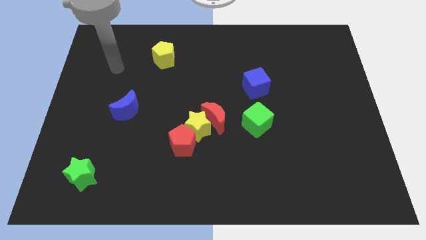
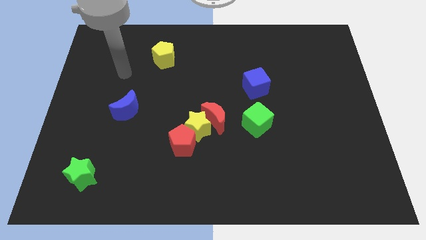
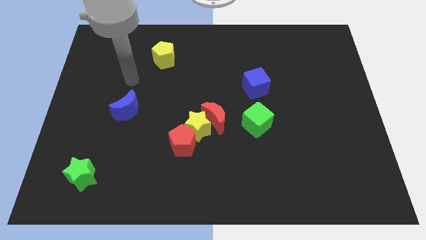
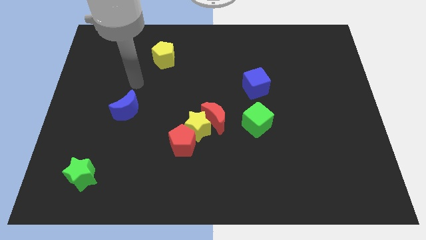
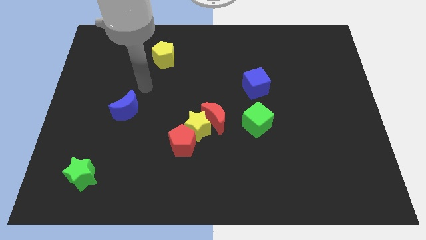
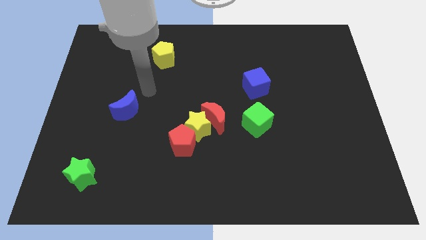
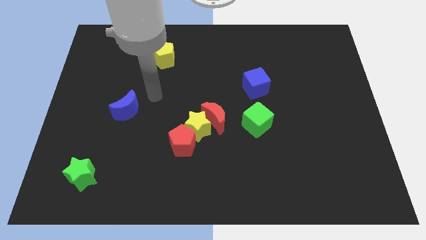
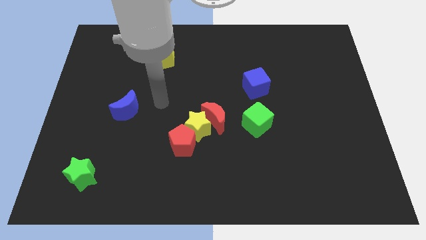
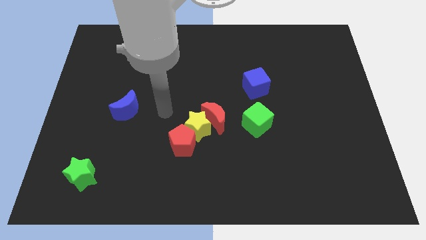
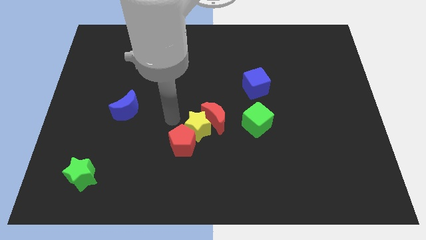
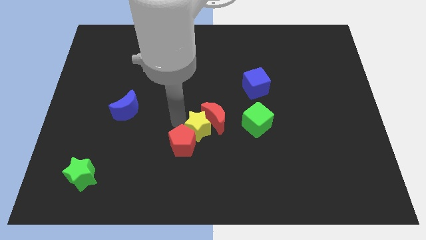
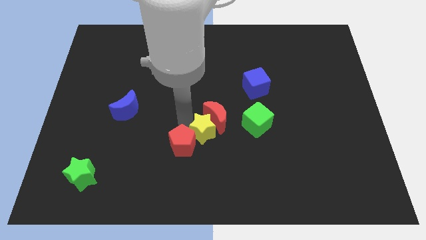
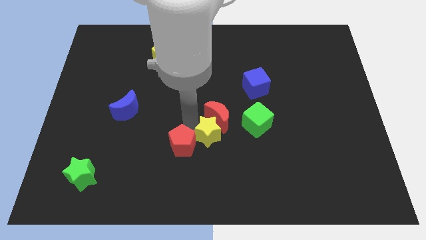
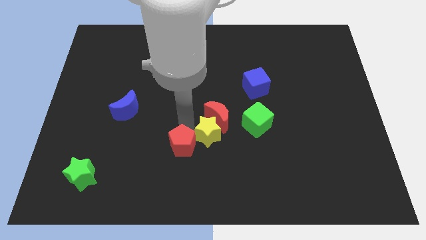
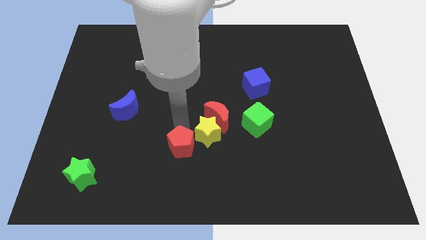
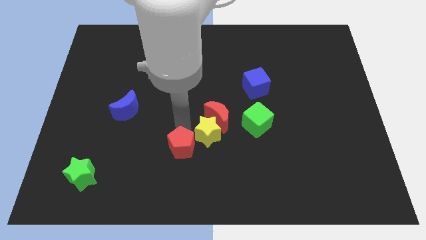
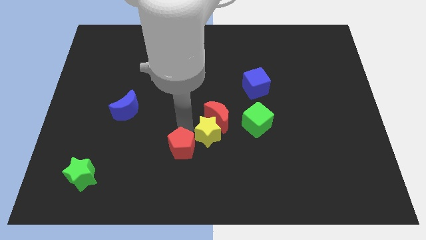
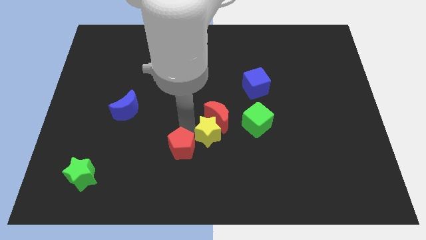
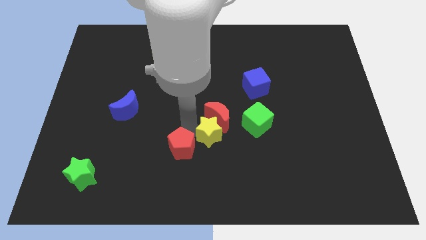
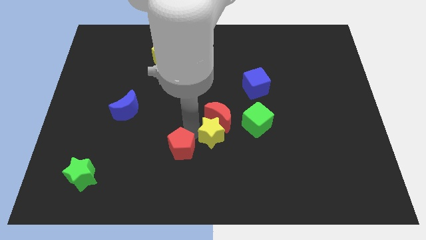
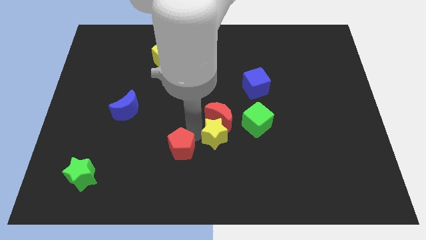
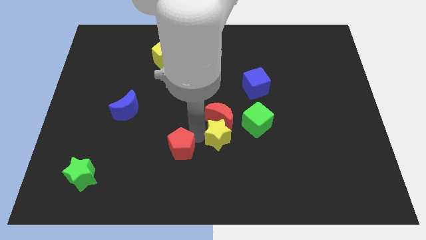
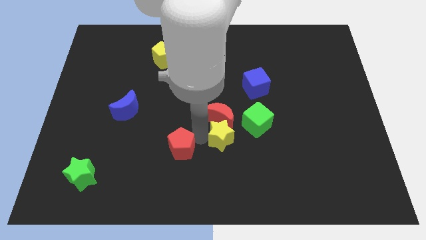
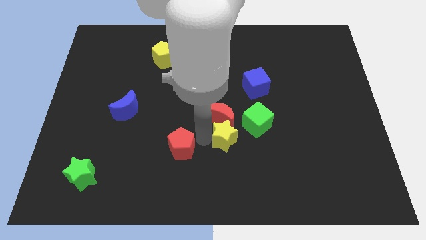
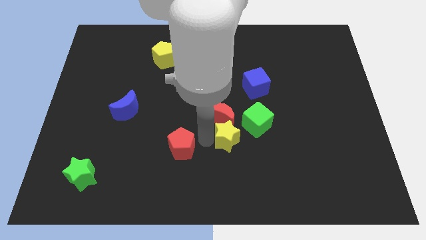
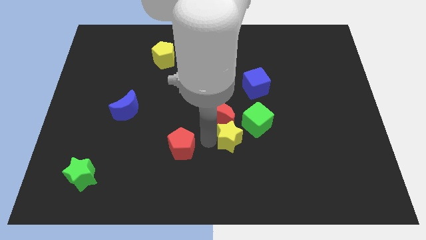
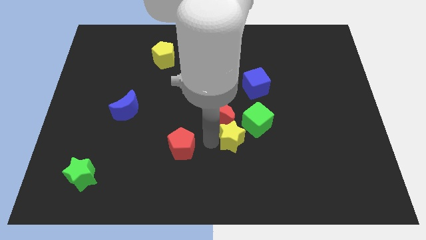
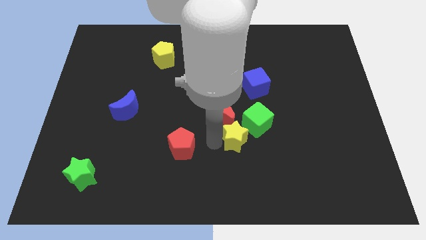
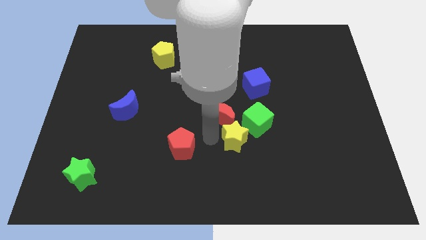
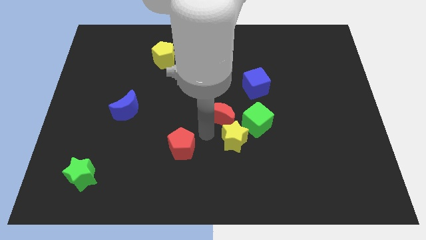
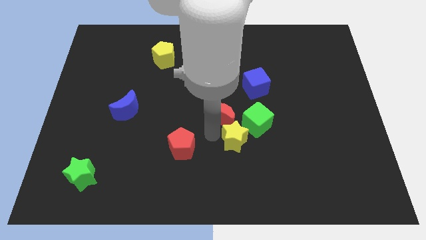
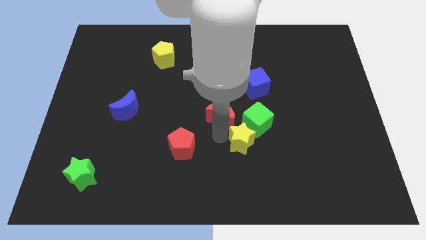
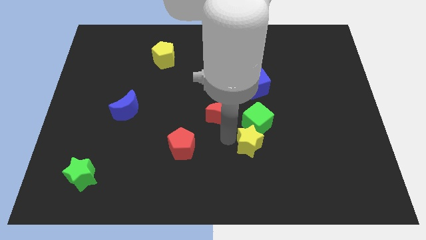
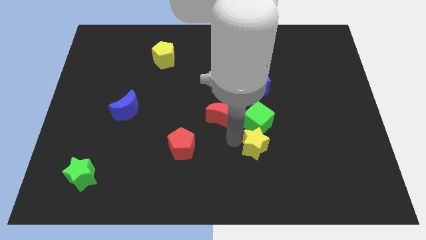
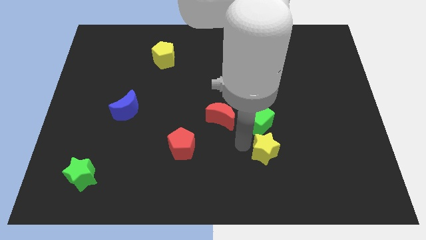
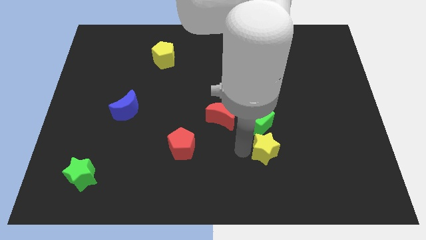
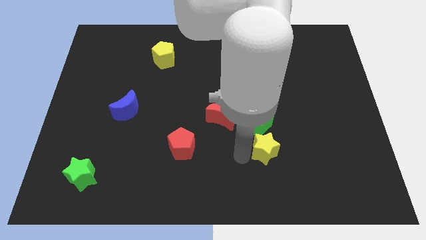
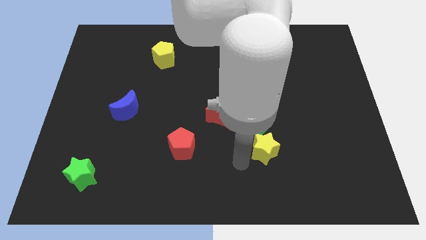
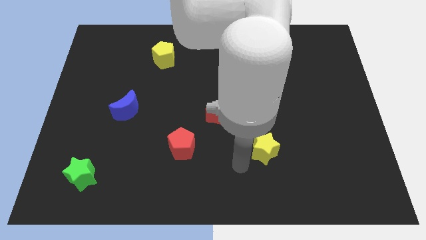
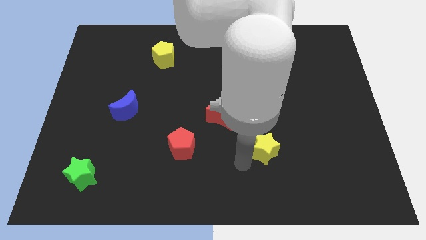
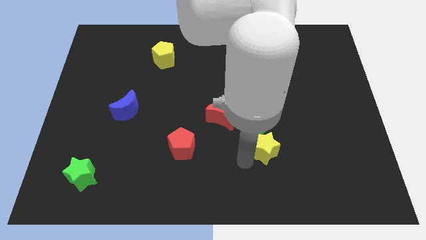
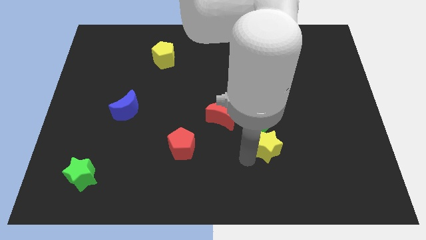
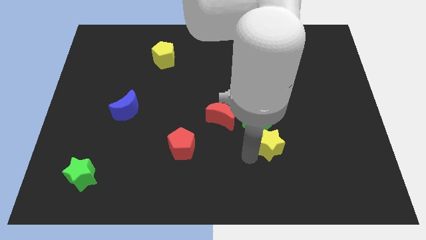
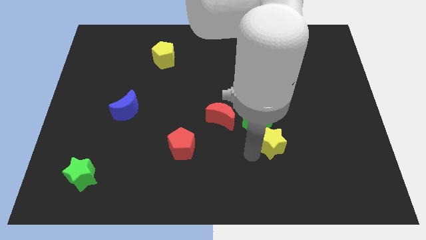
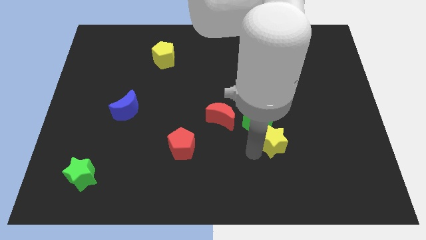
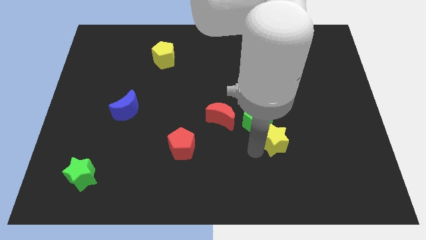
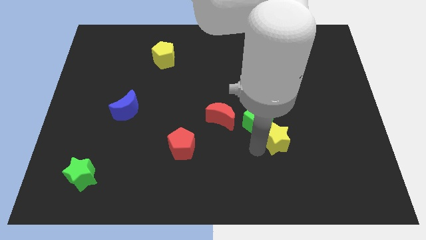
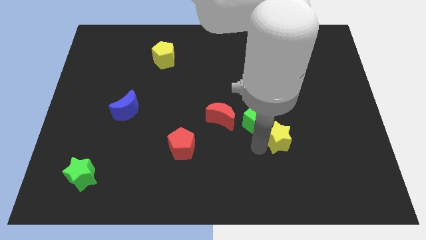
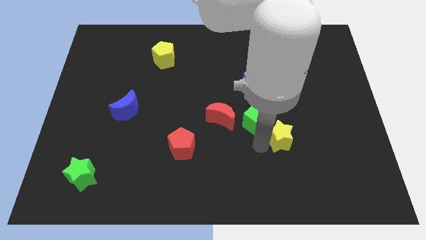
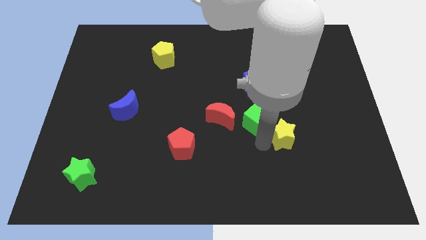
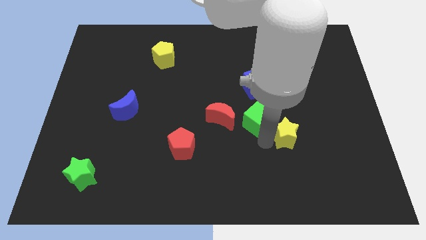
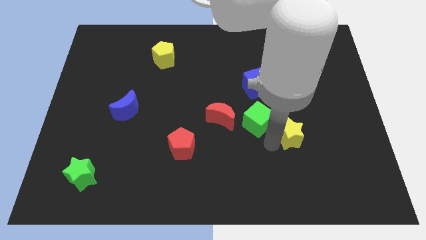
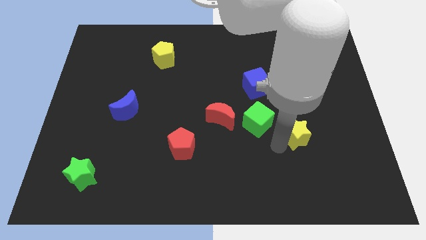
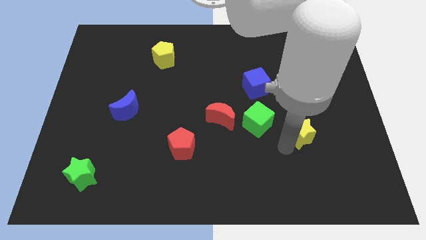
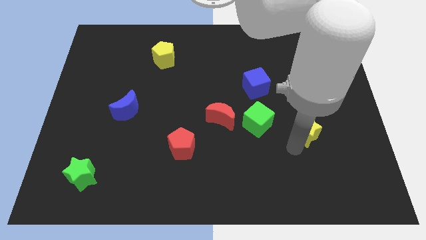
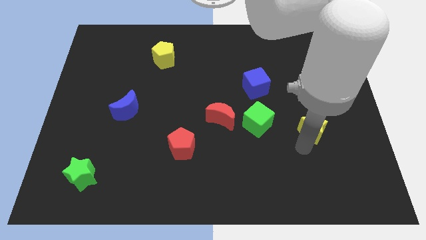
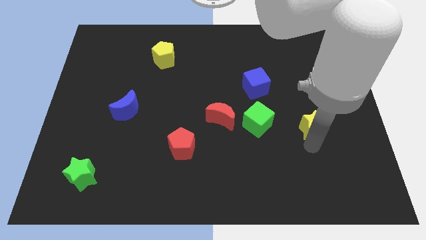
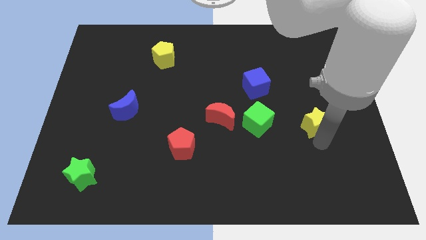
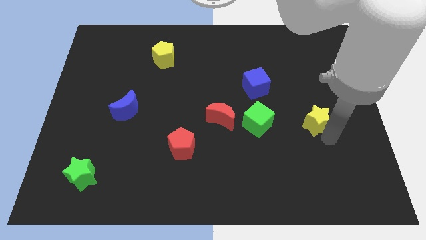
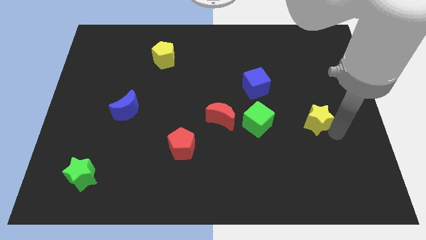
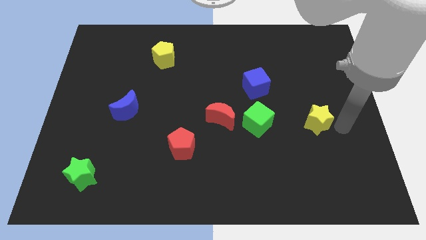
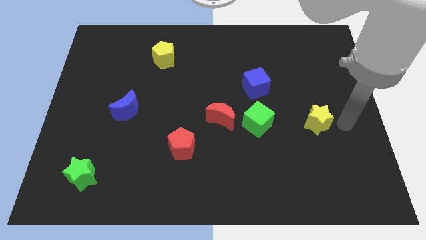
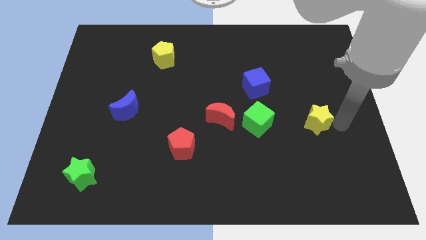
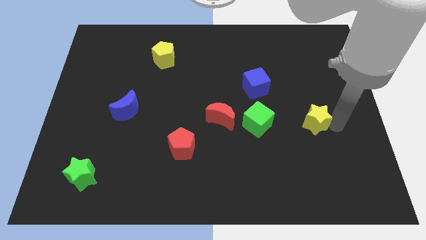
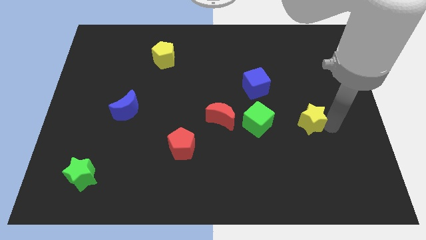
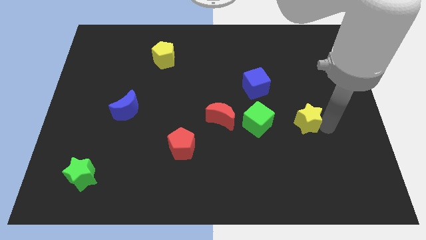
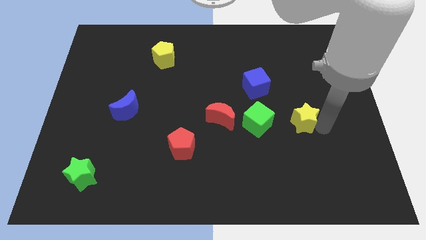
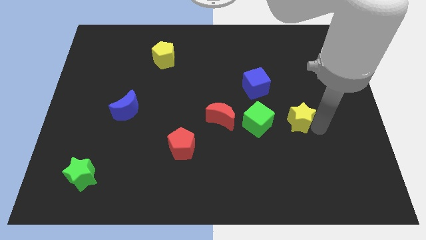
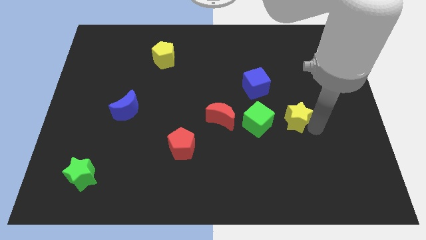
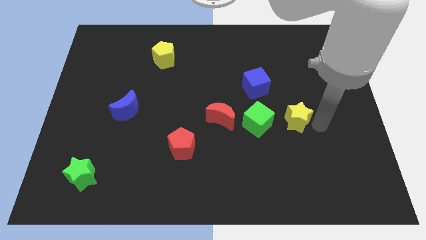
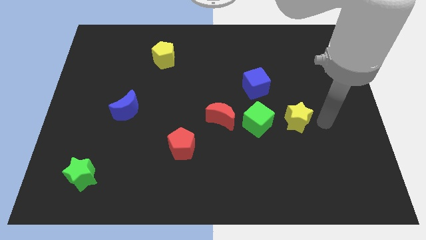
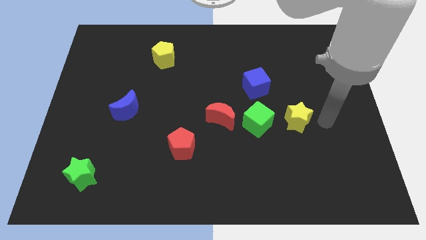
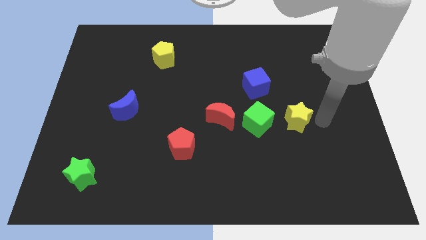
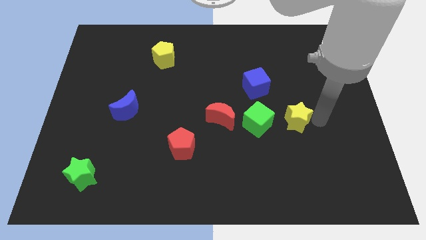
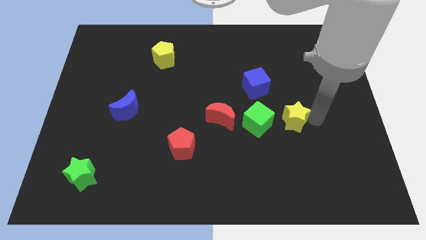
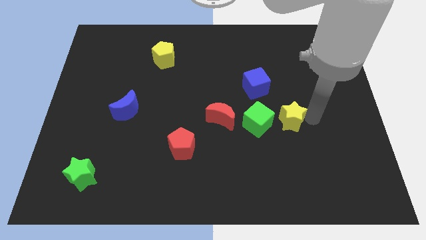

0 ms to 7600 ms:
slide the yellow star just right of the red moon
